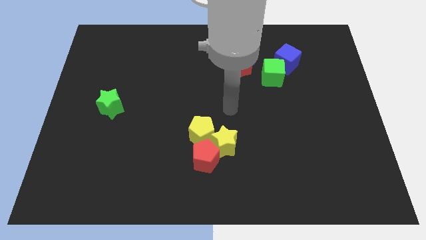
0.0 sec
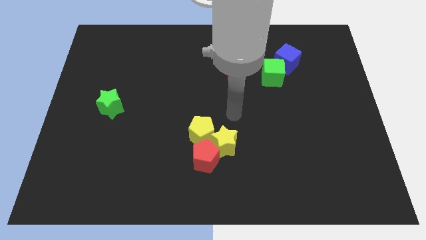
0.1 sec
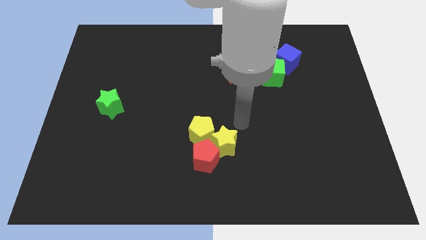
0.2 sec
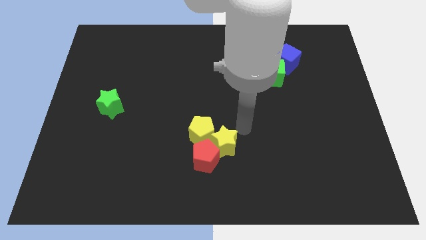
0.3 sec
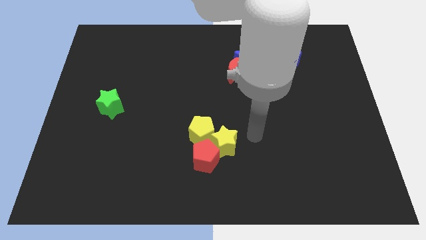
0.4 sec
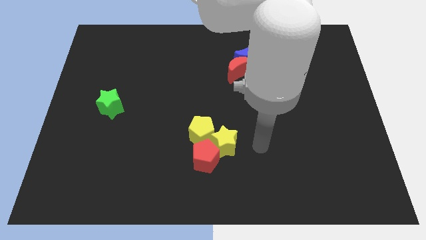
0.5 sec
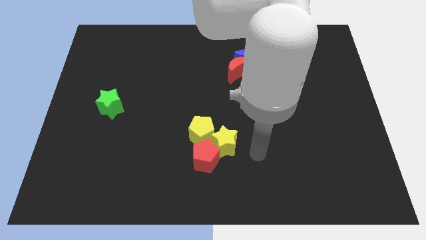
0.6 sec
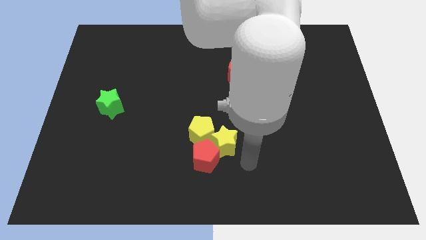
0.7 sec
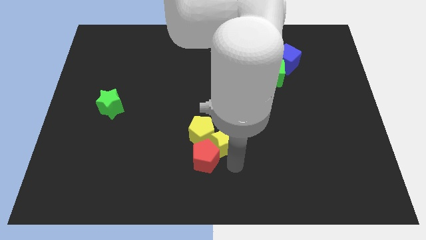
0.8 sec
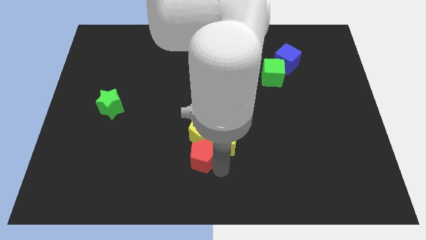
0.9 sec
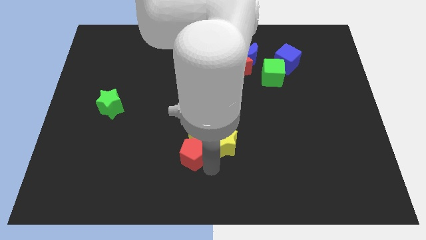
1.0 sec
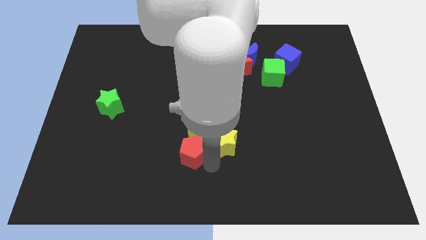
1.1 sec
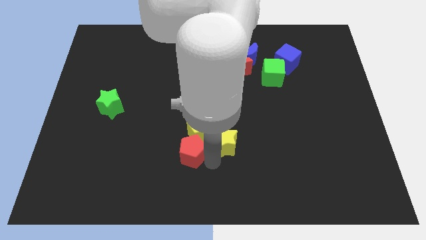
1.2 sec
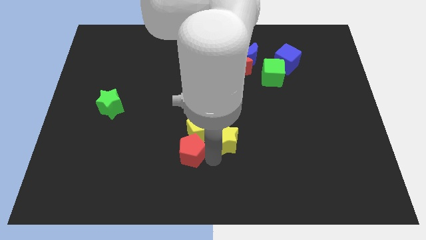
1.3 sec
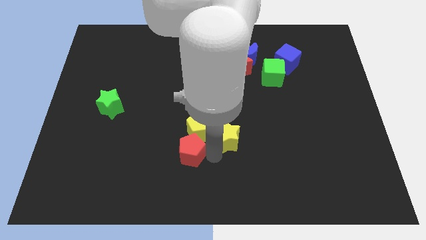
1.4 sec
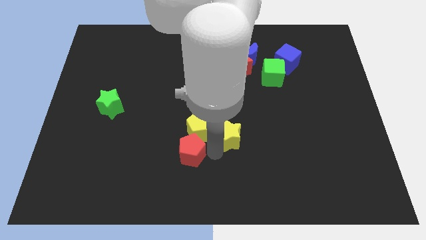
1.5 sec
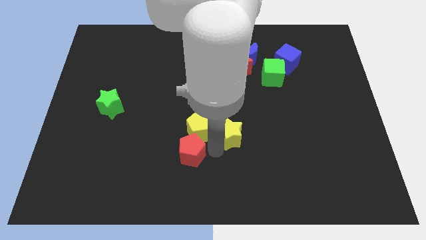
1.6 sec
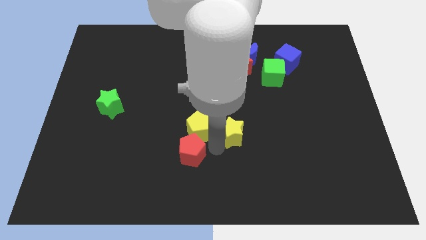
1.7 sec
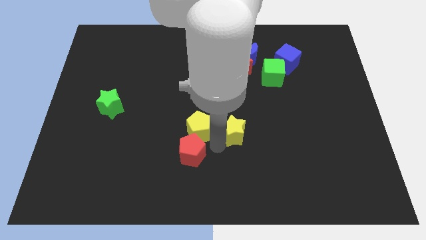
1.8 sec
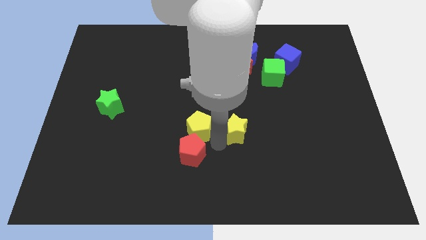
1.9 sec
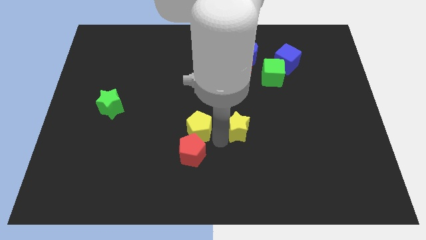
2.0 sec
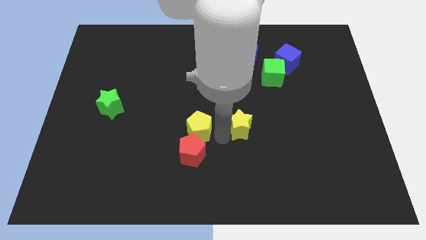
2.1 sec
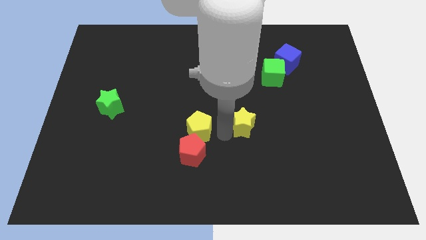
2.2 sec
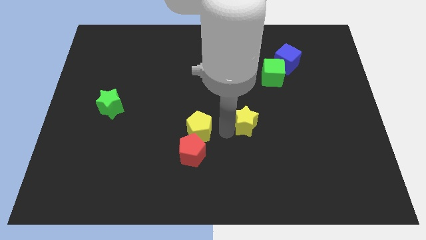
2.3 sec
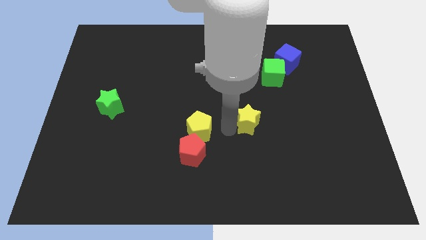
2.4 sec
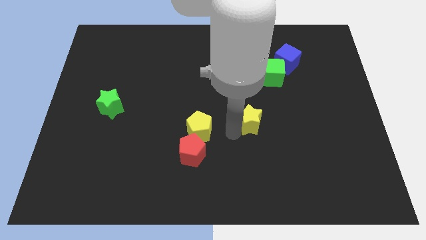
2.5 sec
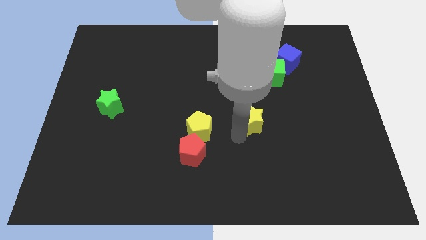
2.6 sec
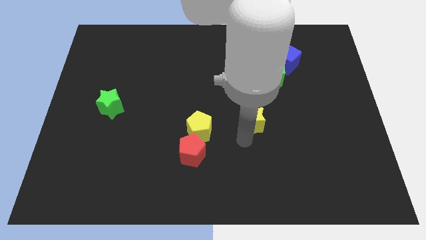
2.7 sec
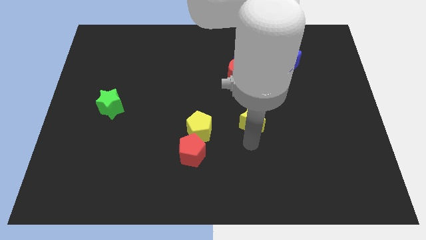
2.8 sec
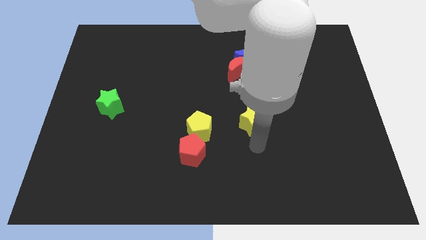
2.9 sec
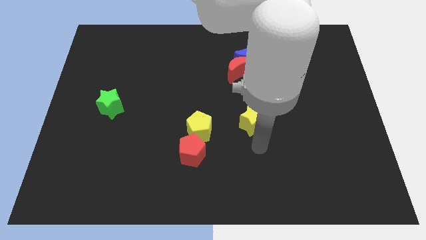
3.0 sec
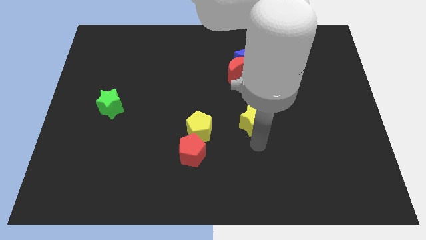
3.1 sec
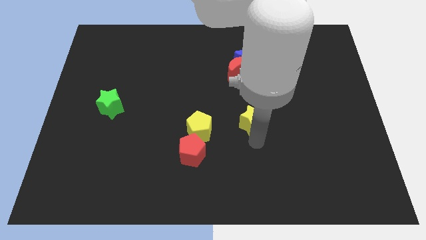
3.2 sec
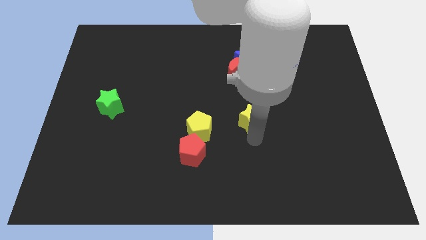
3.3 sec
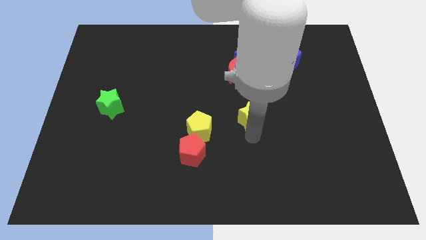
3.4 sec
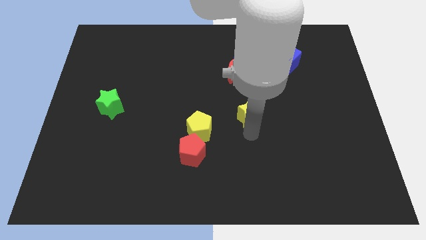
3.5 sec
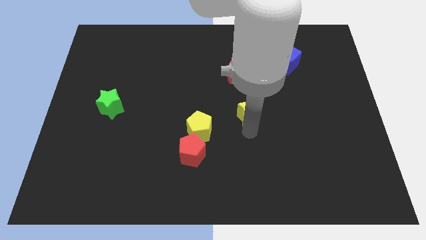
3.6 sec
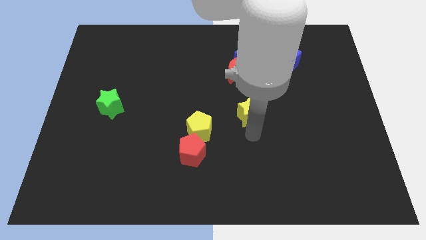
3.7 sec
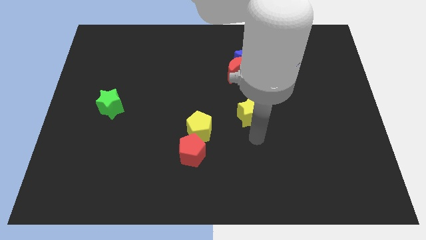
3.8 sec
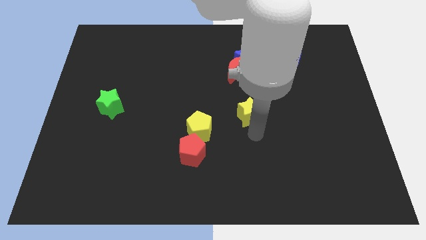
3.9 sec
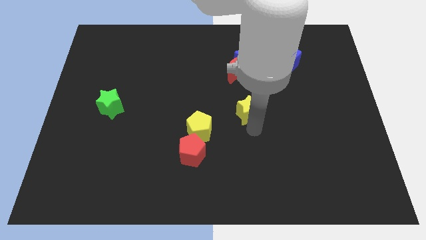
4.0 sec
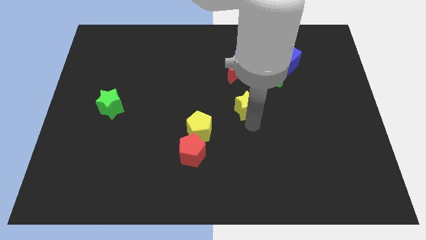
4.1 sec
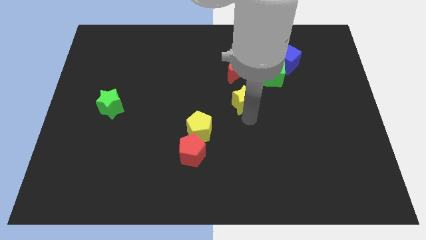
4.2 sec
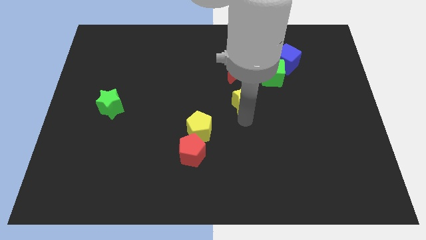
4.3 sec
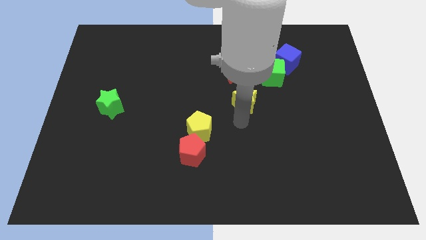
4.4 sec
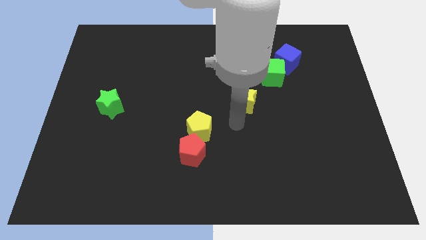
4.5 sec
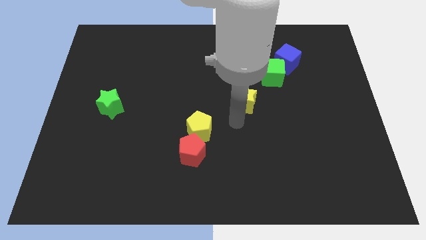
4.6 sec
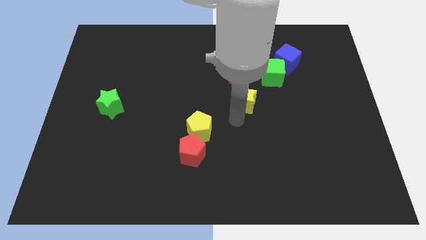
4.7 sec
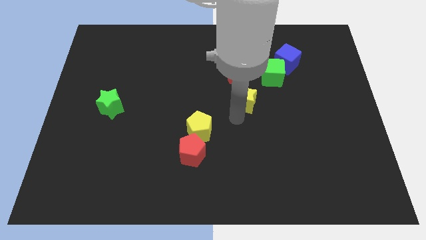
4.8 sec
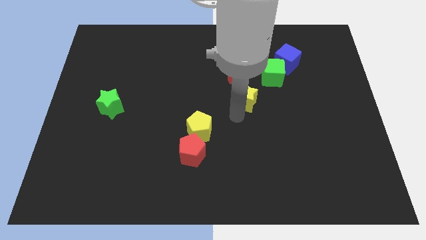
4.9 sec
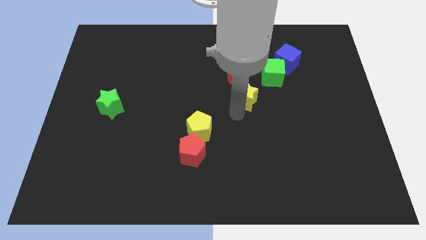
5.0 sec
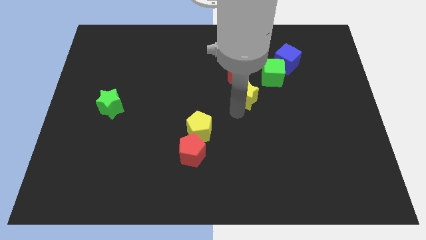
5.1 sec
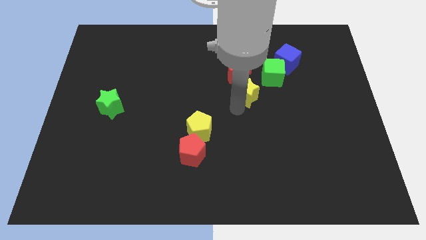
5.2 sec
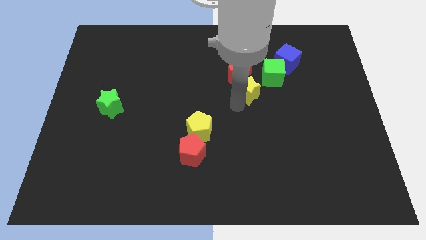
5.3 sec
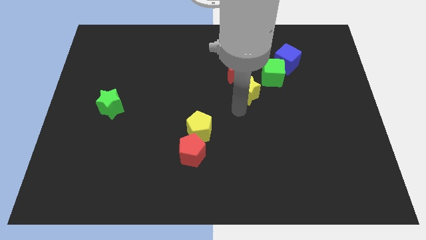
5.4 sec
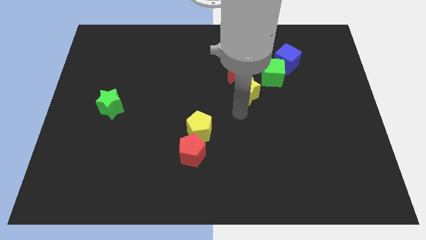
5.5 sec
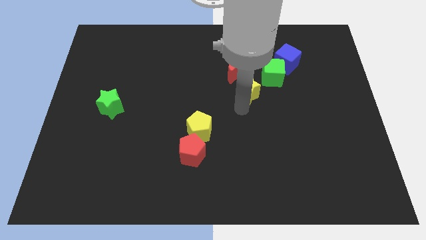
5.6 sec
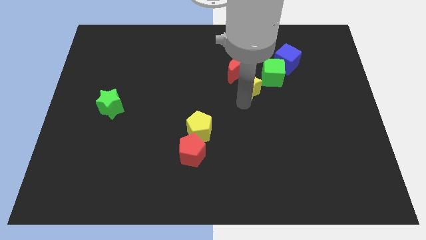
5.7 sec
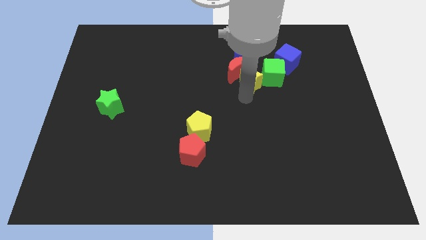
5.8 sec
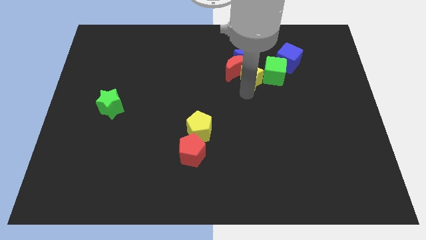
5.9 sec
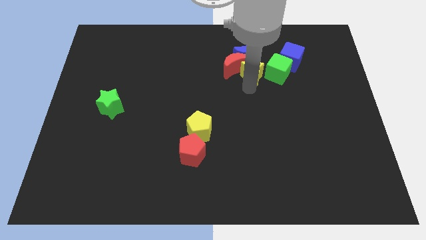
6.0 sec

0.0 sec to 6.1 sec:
move the yellow star towards the blue moon

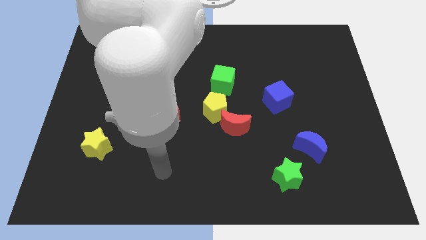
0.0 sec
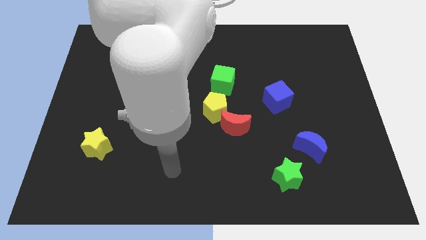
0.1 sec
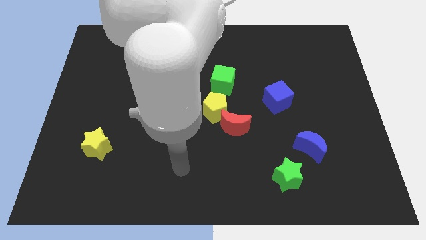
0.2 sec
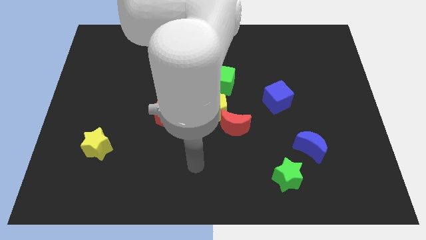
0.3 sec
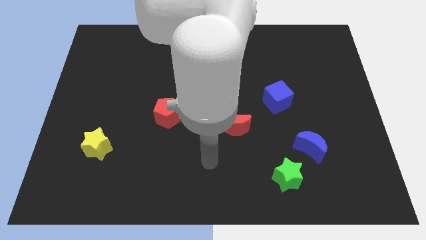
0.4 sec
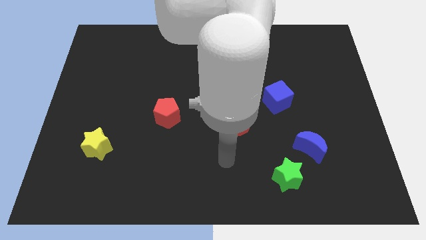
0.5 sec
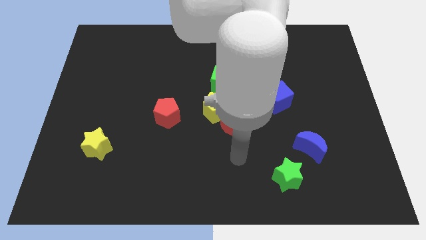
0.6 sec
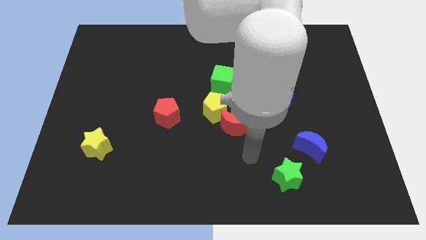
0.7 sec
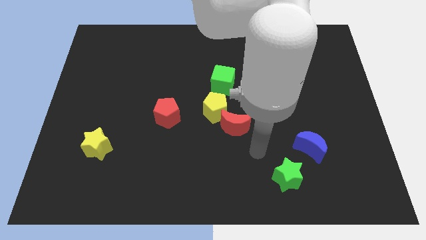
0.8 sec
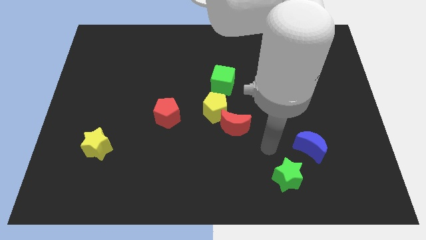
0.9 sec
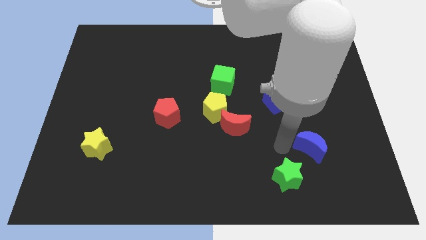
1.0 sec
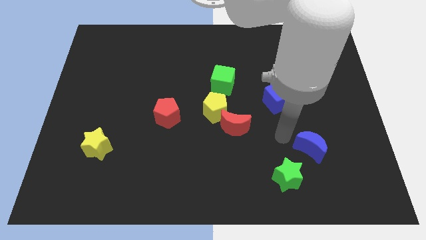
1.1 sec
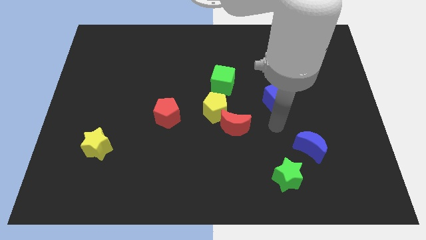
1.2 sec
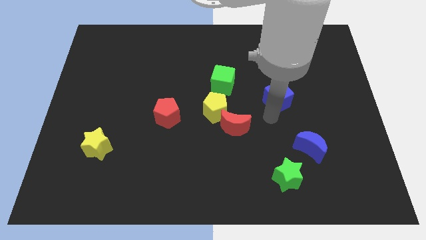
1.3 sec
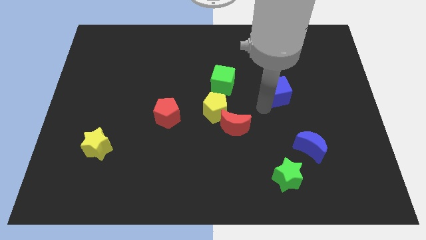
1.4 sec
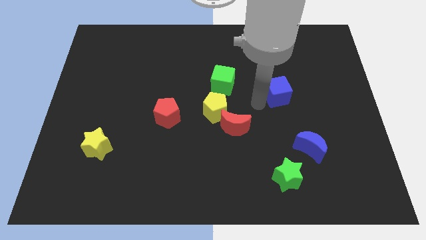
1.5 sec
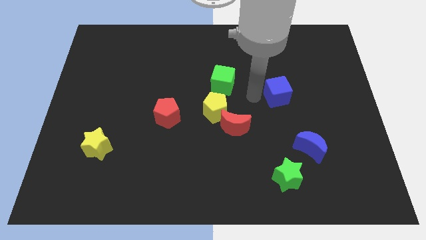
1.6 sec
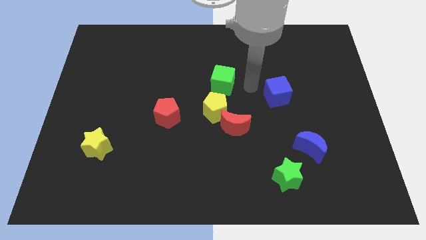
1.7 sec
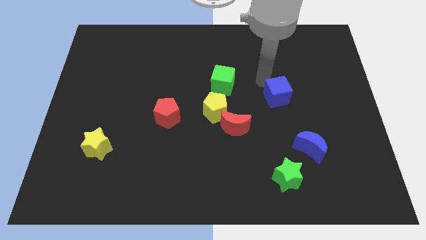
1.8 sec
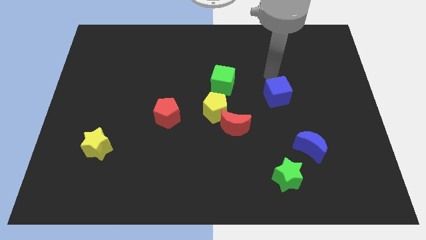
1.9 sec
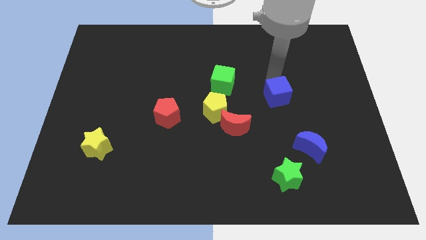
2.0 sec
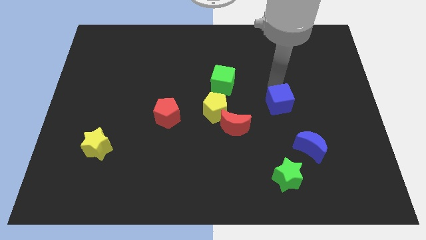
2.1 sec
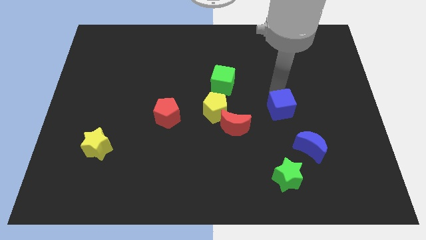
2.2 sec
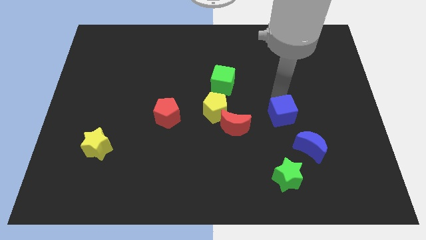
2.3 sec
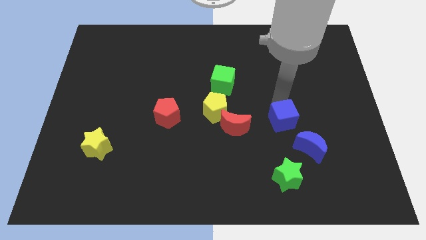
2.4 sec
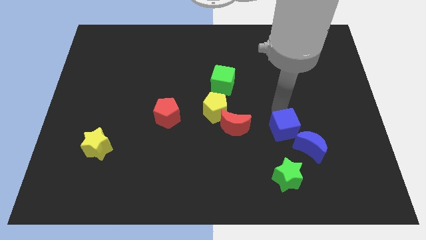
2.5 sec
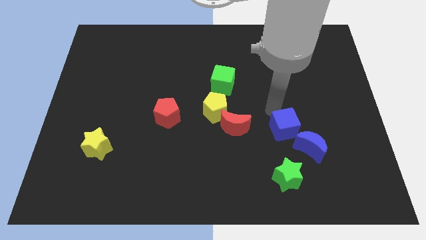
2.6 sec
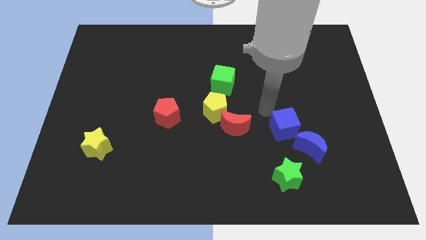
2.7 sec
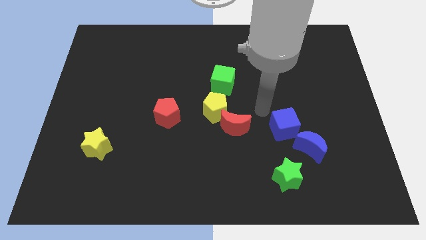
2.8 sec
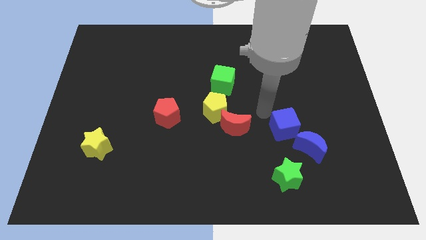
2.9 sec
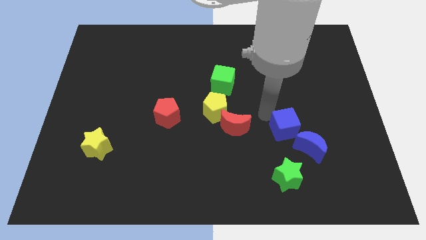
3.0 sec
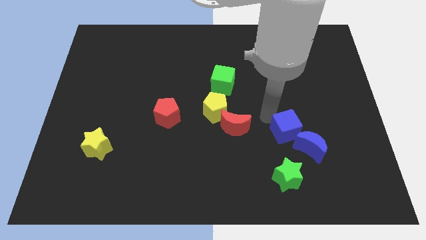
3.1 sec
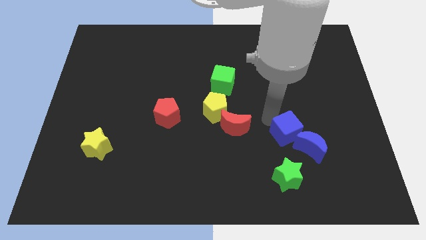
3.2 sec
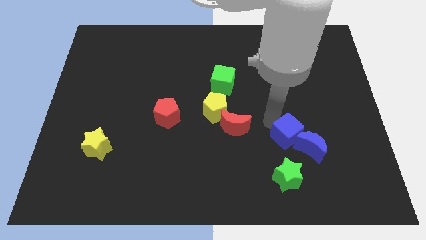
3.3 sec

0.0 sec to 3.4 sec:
slide the blue cube next to the blue moon
